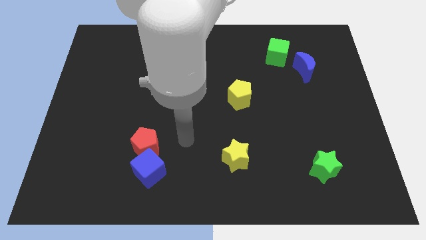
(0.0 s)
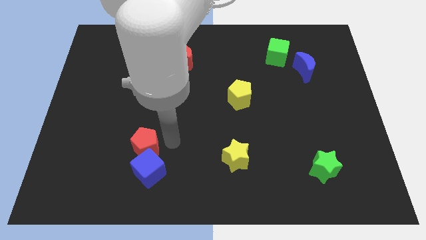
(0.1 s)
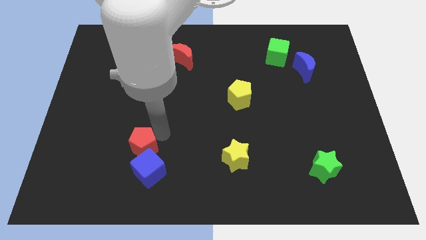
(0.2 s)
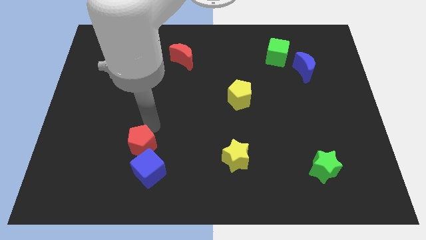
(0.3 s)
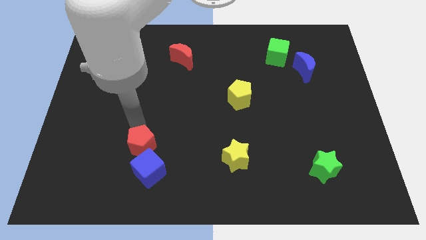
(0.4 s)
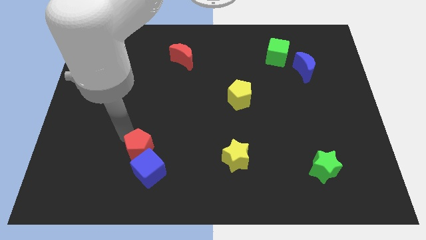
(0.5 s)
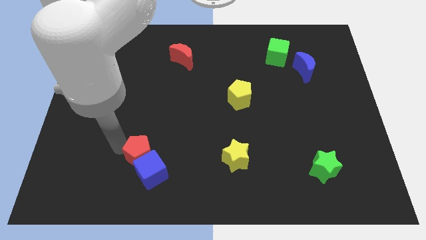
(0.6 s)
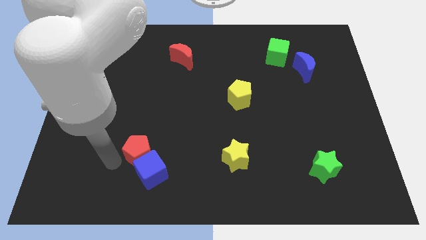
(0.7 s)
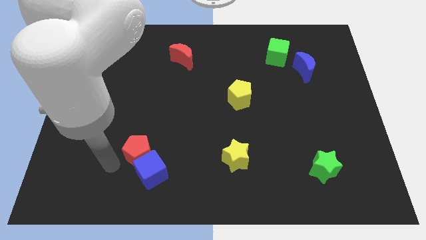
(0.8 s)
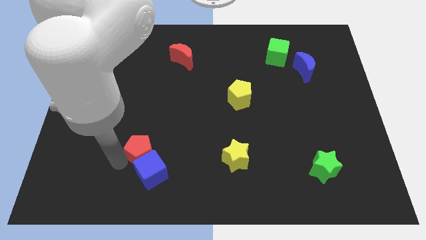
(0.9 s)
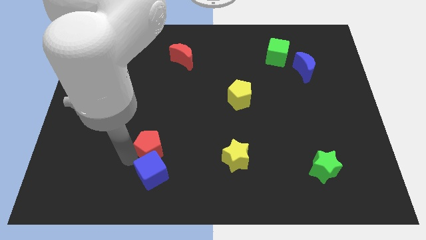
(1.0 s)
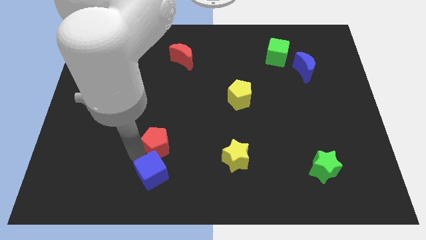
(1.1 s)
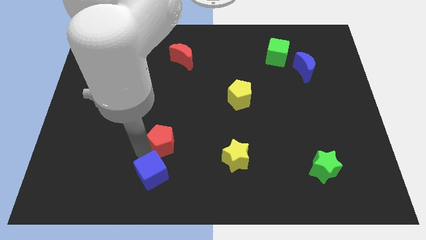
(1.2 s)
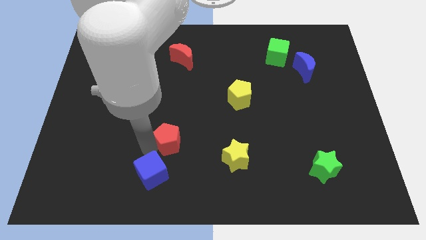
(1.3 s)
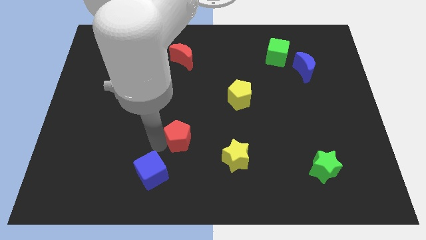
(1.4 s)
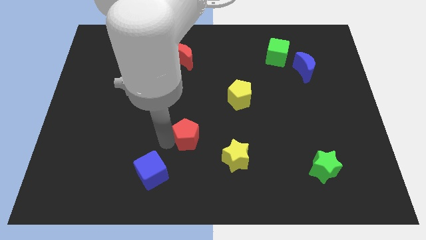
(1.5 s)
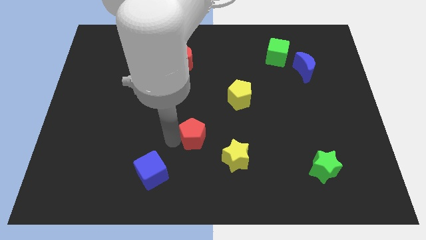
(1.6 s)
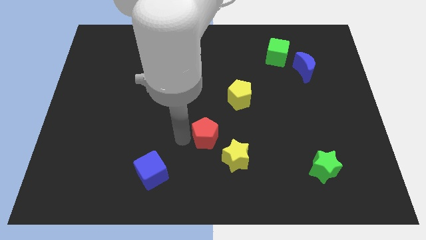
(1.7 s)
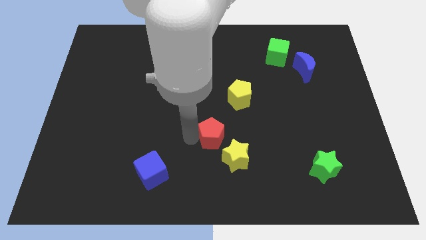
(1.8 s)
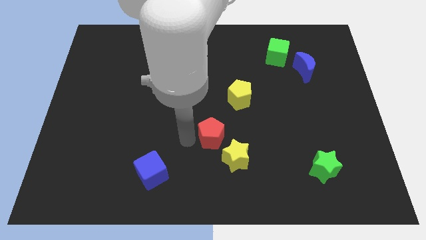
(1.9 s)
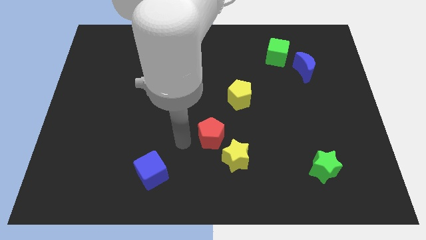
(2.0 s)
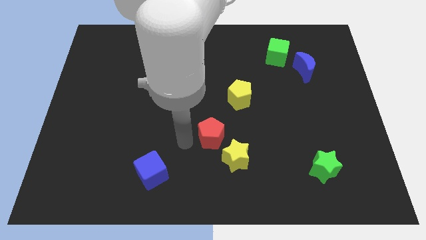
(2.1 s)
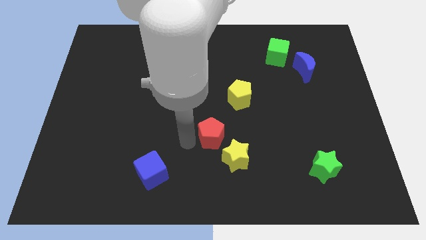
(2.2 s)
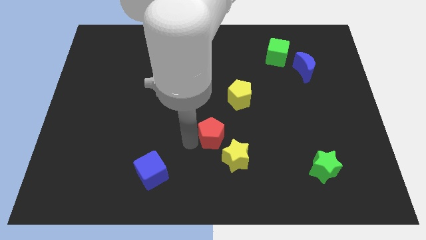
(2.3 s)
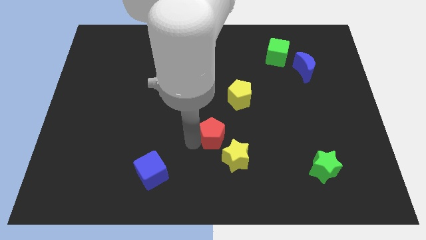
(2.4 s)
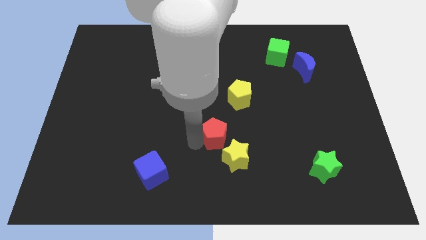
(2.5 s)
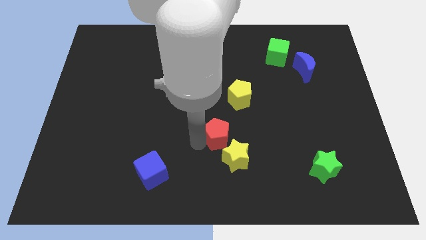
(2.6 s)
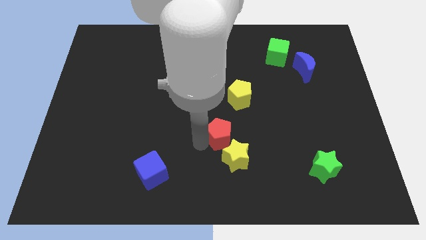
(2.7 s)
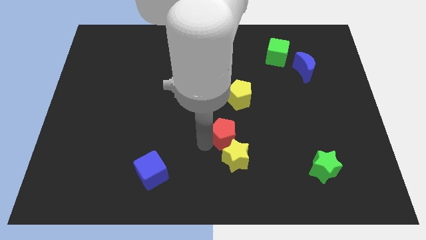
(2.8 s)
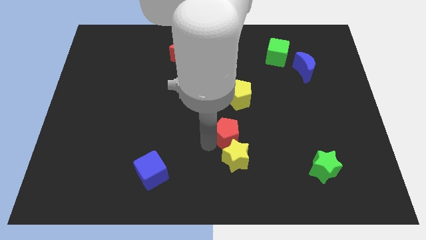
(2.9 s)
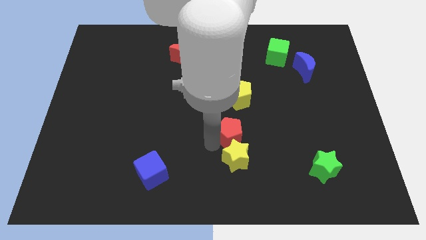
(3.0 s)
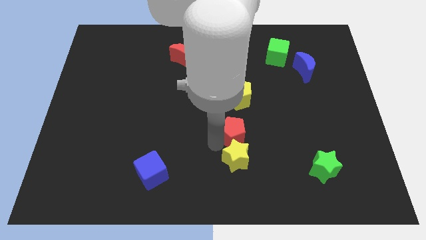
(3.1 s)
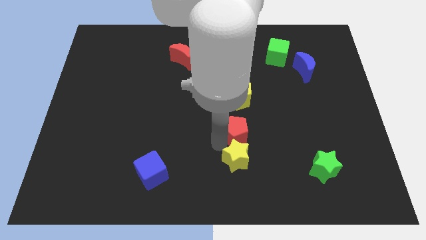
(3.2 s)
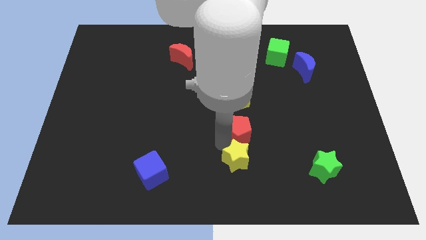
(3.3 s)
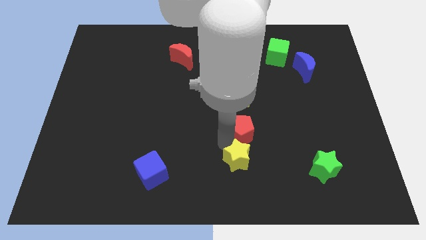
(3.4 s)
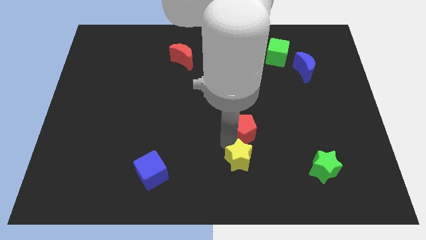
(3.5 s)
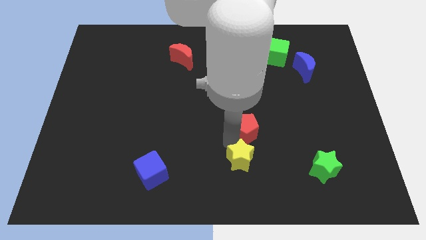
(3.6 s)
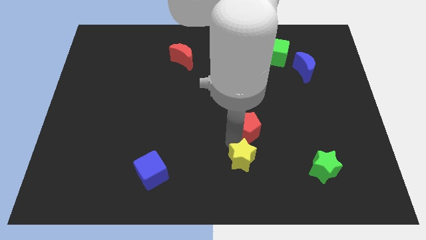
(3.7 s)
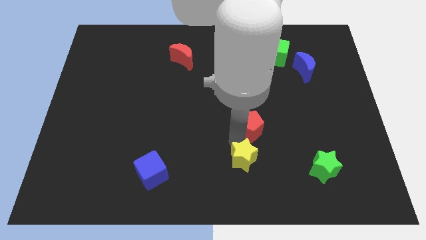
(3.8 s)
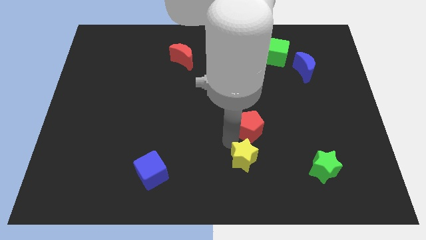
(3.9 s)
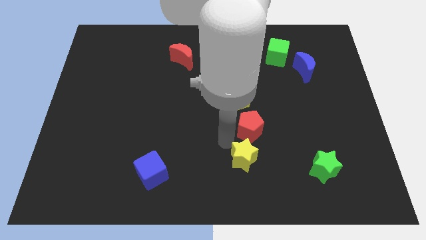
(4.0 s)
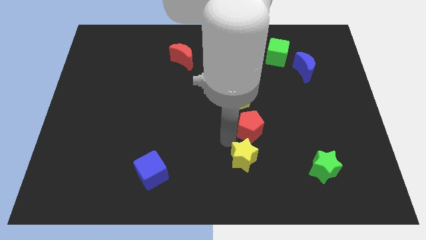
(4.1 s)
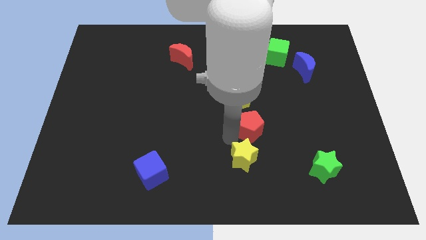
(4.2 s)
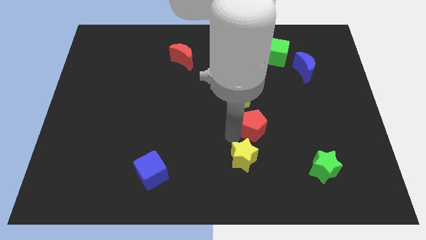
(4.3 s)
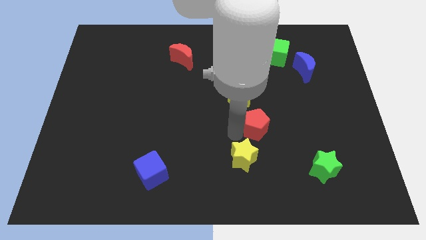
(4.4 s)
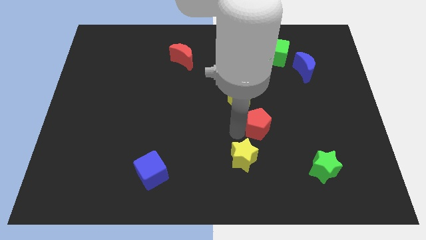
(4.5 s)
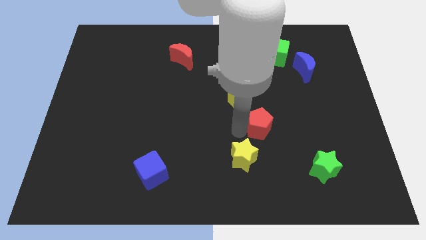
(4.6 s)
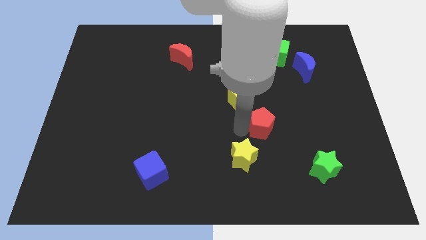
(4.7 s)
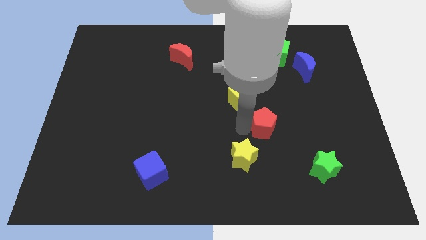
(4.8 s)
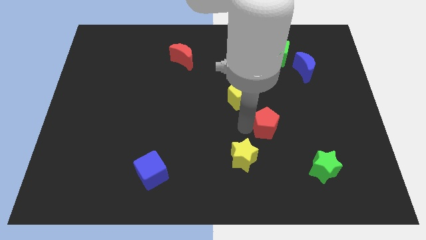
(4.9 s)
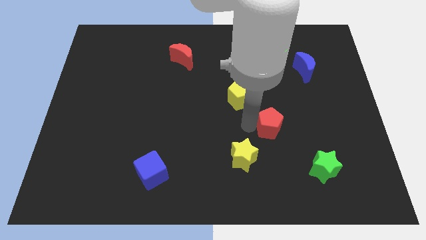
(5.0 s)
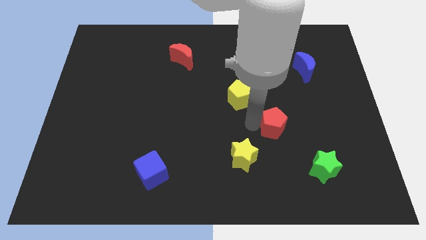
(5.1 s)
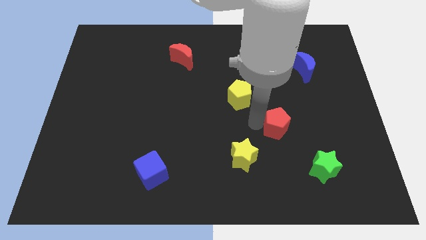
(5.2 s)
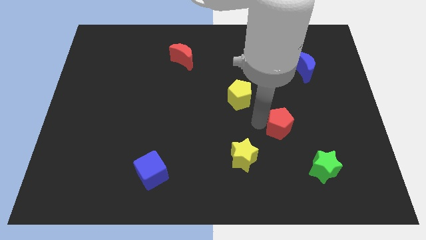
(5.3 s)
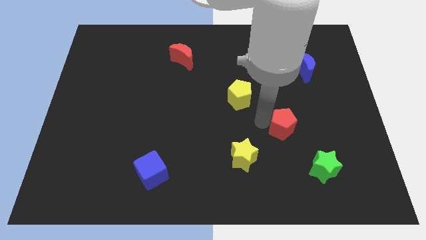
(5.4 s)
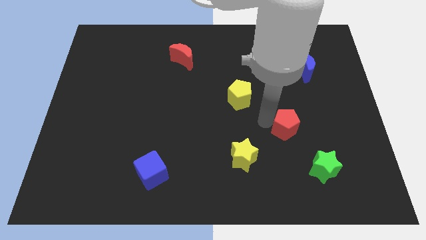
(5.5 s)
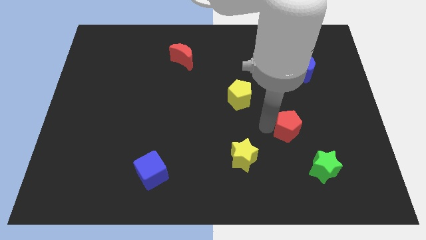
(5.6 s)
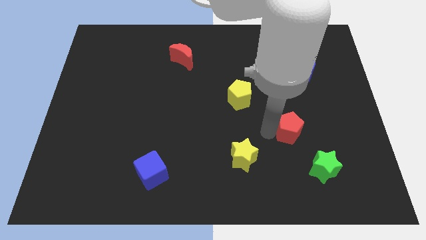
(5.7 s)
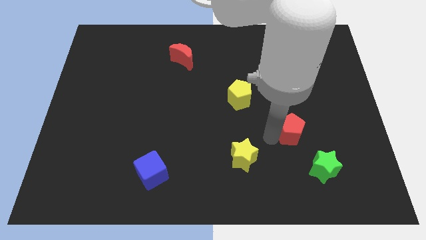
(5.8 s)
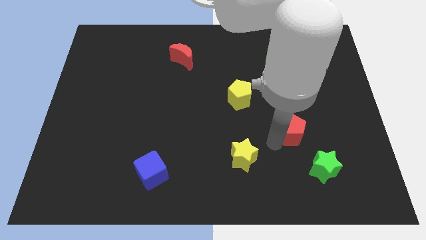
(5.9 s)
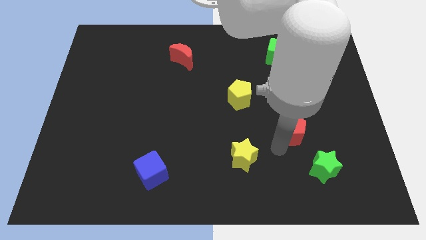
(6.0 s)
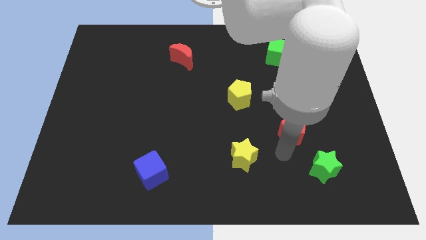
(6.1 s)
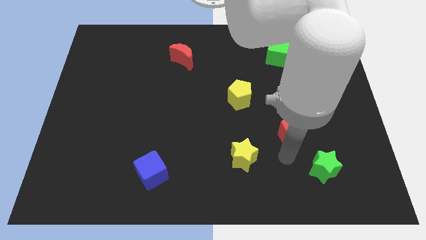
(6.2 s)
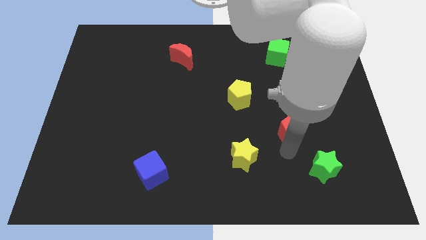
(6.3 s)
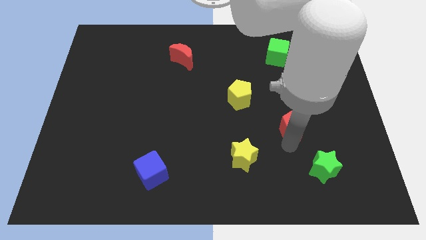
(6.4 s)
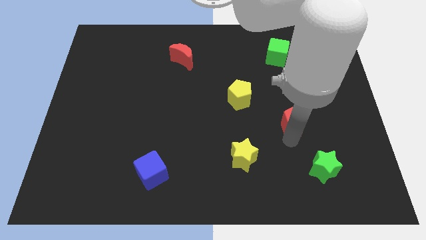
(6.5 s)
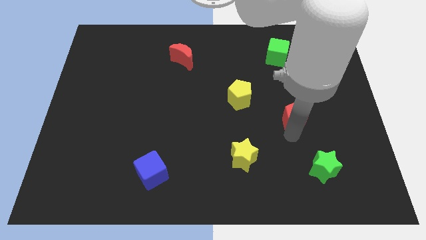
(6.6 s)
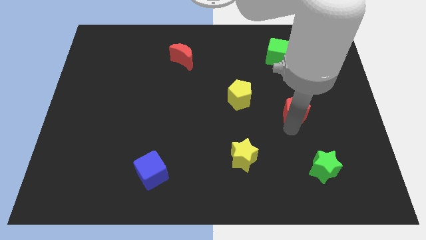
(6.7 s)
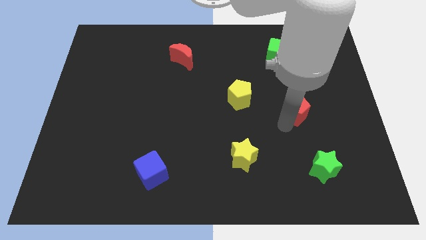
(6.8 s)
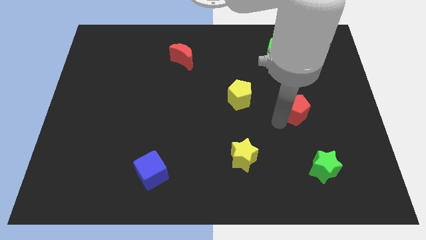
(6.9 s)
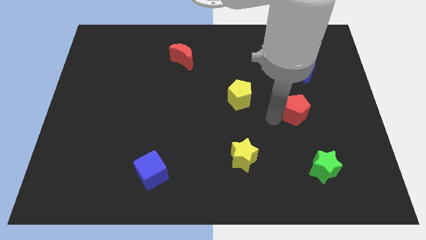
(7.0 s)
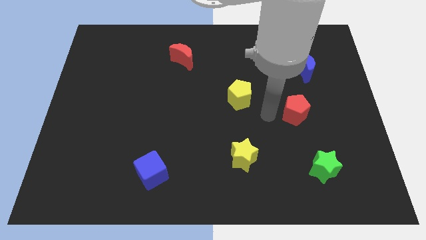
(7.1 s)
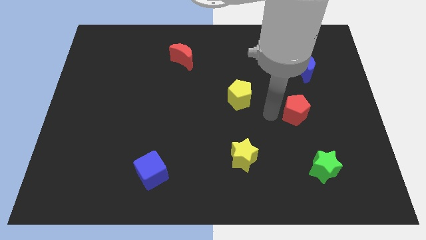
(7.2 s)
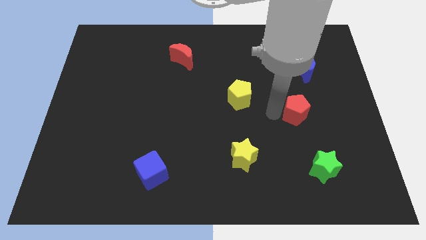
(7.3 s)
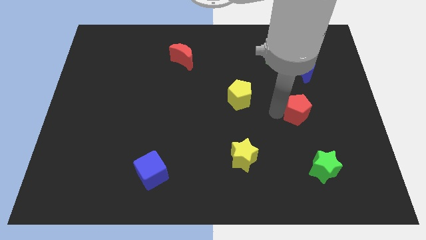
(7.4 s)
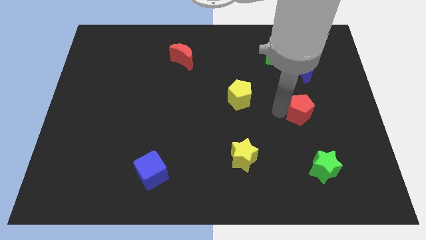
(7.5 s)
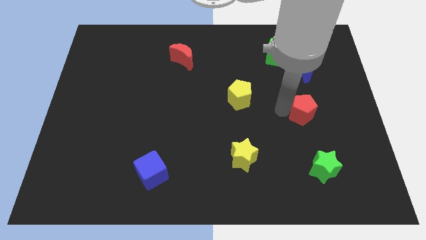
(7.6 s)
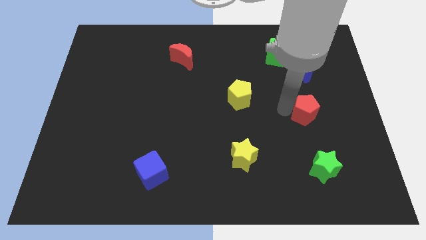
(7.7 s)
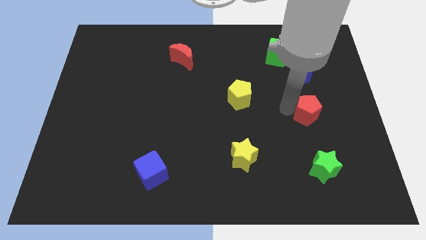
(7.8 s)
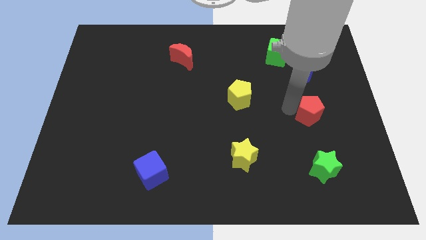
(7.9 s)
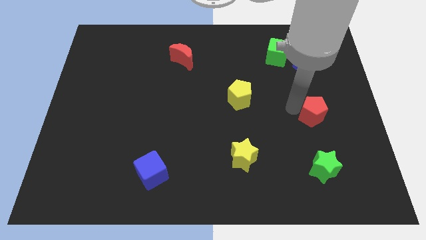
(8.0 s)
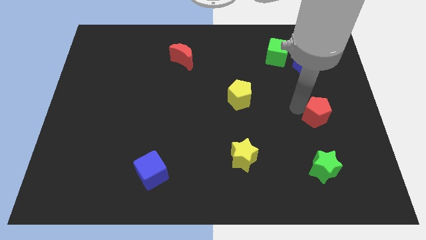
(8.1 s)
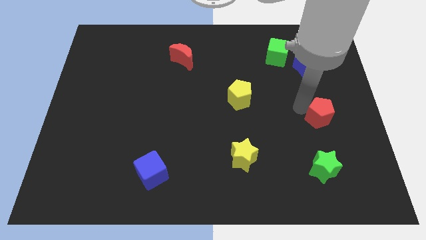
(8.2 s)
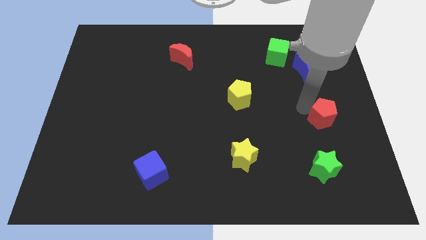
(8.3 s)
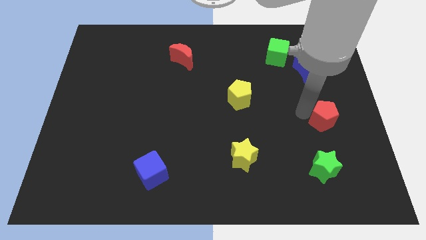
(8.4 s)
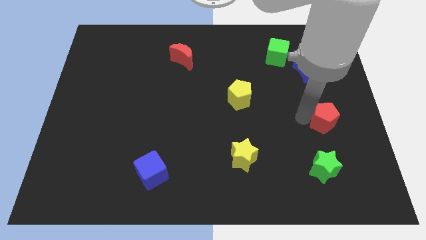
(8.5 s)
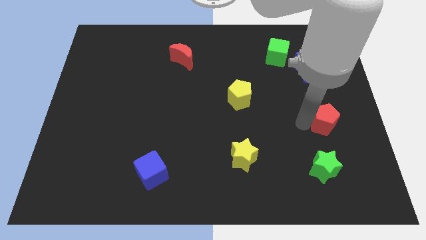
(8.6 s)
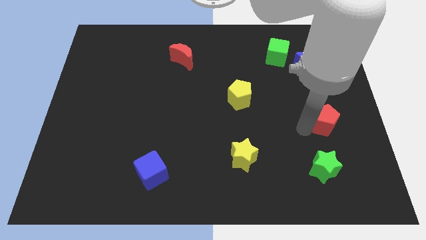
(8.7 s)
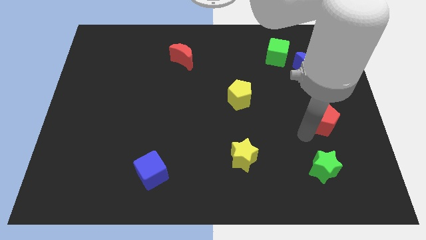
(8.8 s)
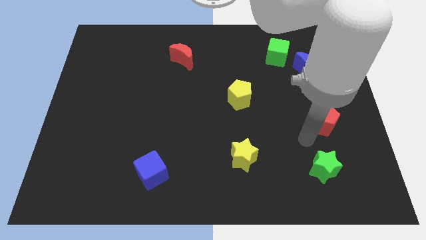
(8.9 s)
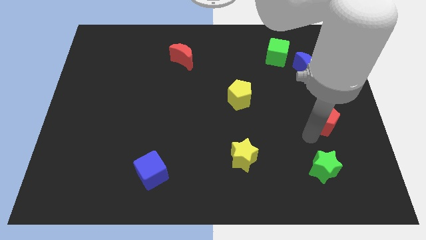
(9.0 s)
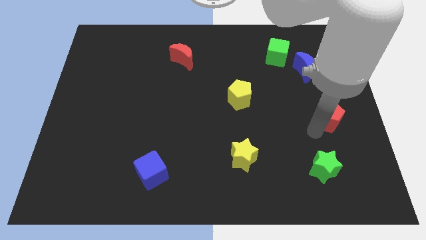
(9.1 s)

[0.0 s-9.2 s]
slide the red pentagon to the center right
